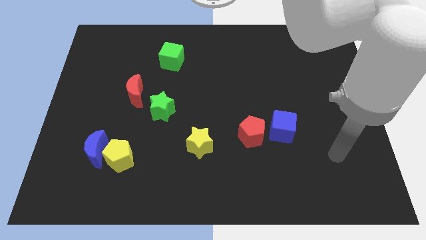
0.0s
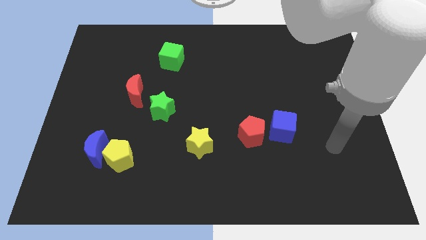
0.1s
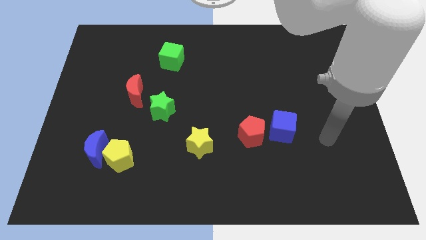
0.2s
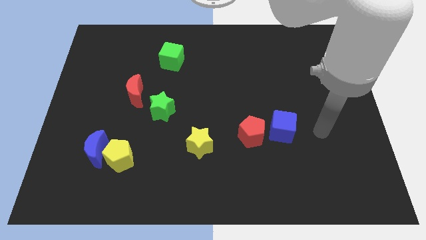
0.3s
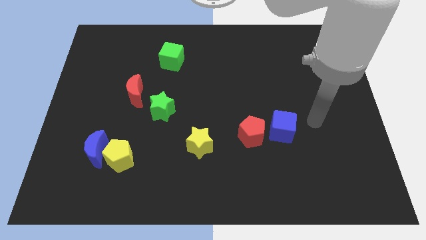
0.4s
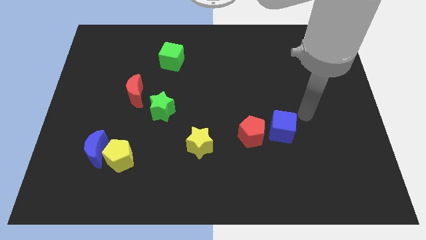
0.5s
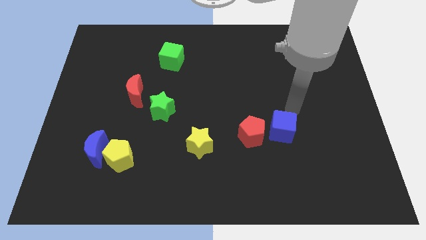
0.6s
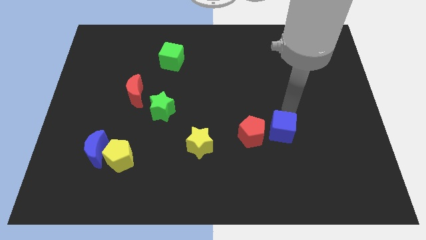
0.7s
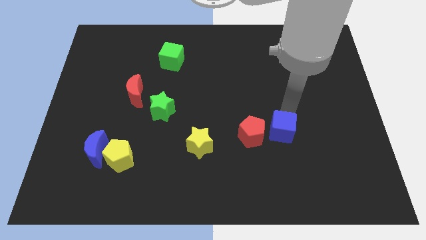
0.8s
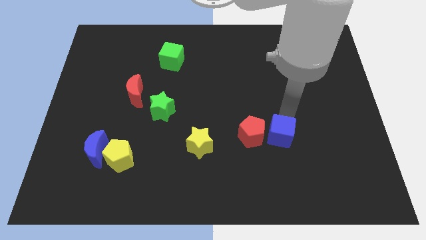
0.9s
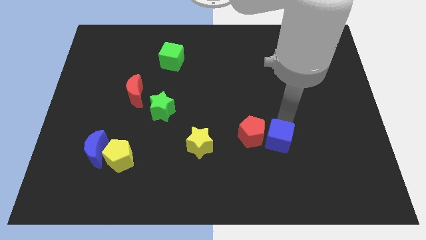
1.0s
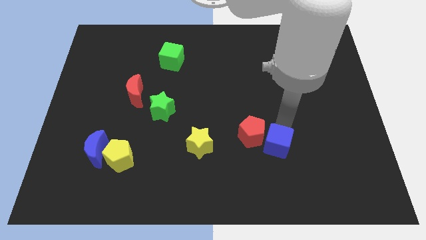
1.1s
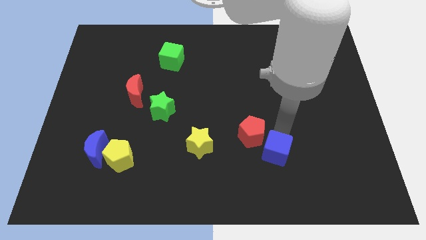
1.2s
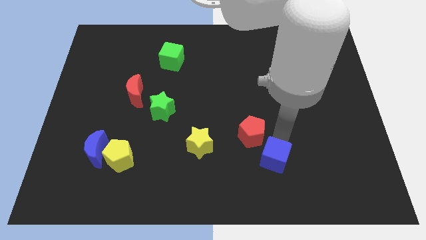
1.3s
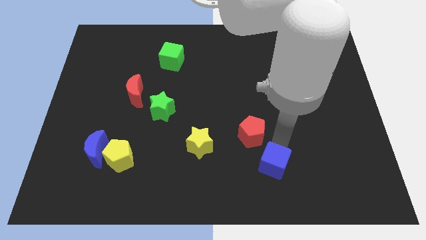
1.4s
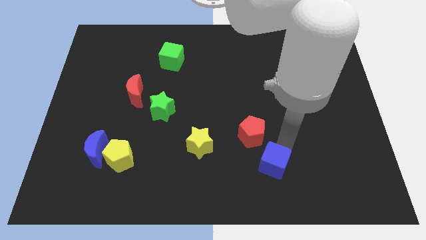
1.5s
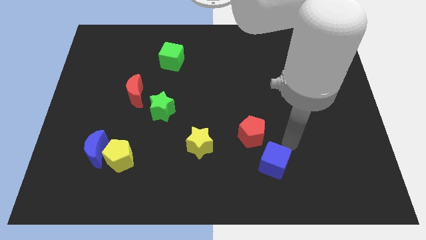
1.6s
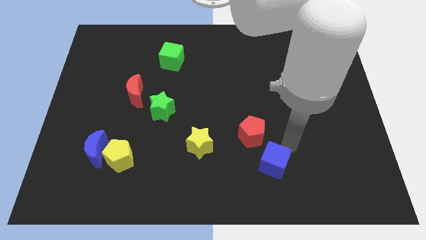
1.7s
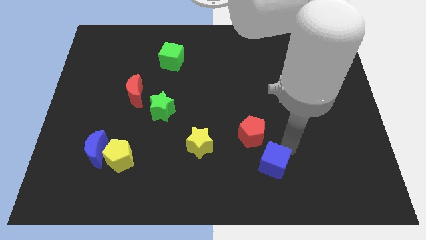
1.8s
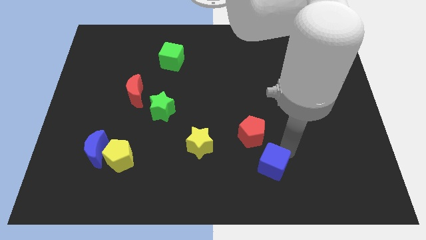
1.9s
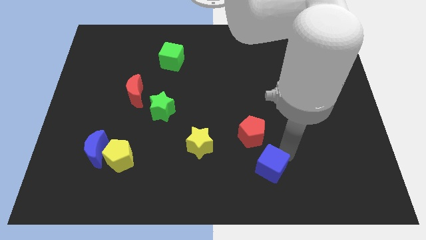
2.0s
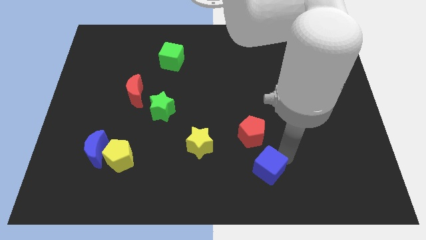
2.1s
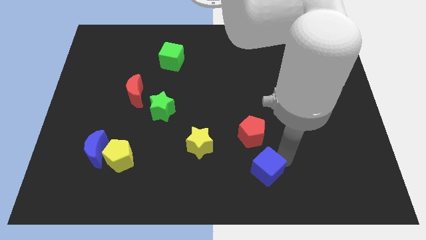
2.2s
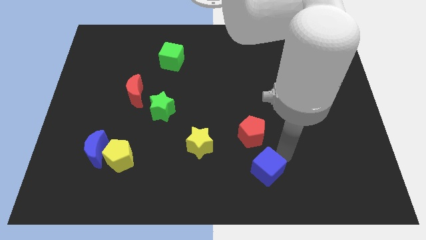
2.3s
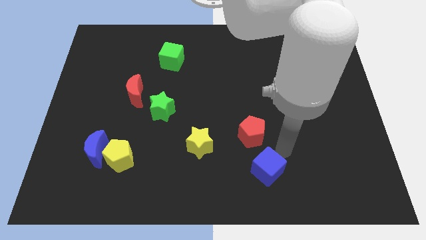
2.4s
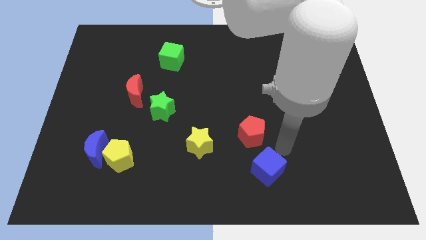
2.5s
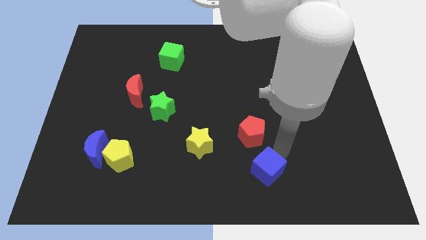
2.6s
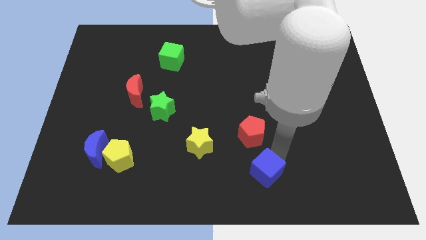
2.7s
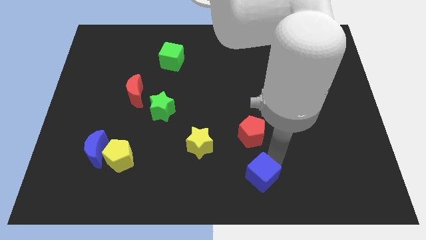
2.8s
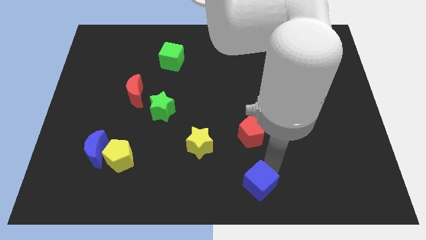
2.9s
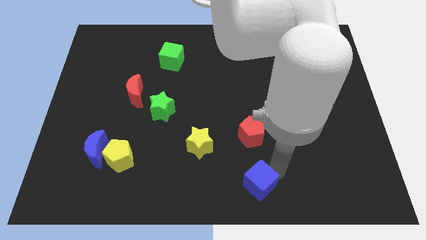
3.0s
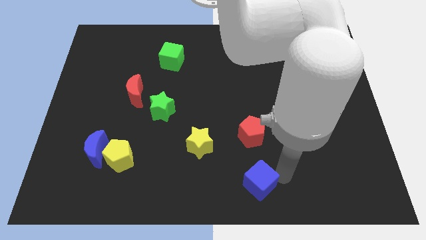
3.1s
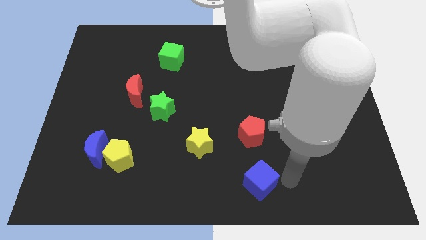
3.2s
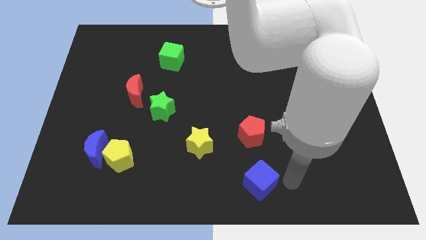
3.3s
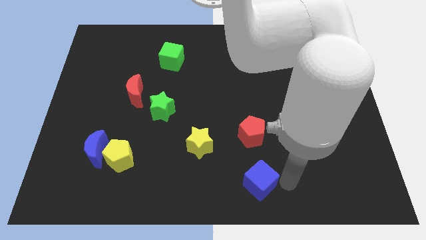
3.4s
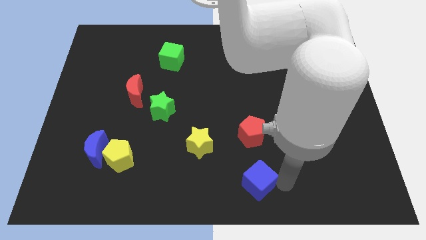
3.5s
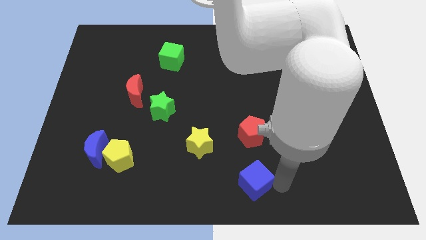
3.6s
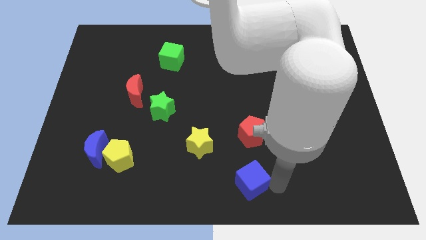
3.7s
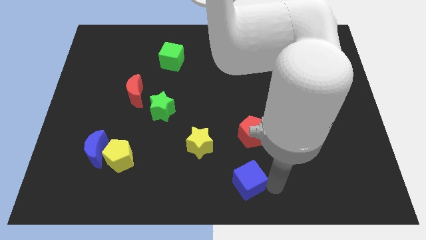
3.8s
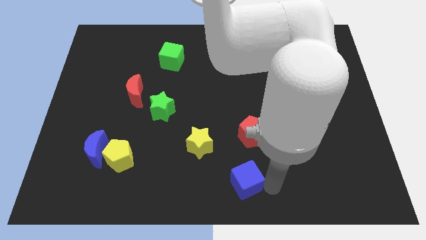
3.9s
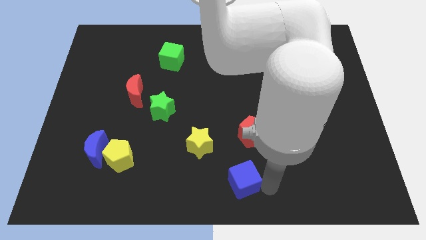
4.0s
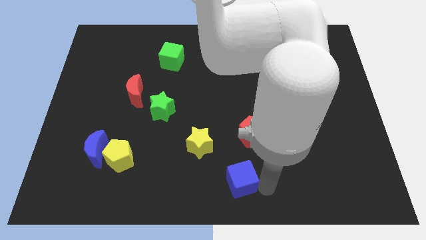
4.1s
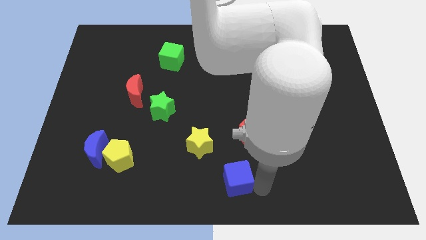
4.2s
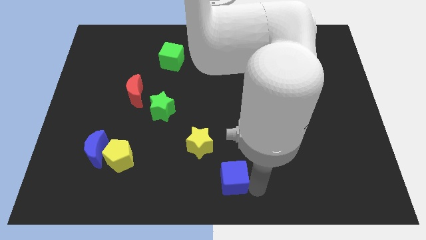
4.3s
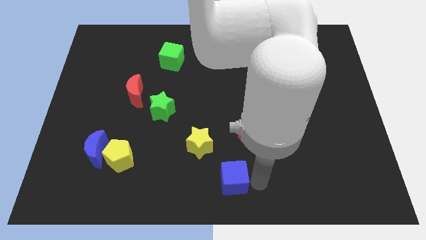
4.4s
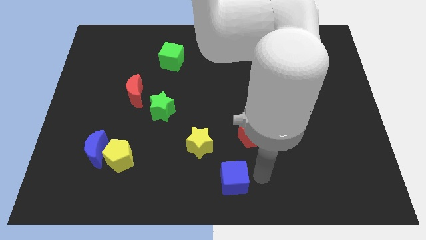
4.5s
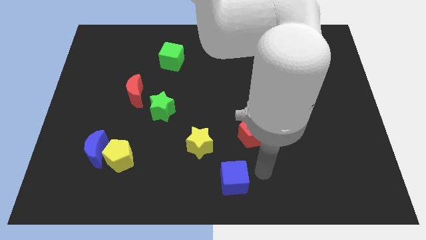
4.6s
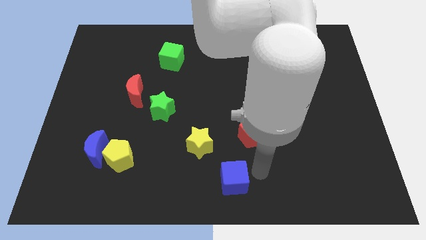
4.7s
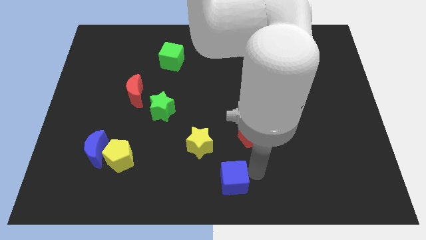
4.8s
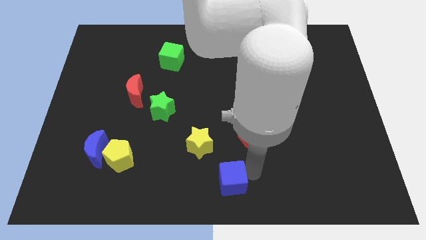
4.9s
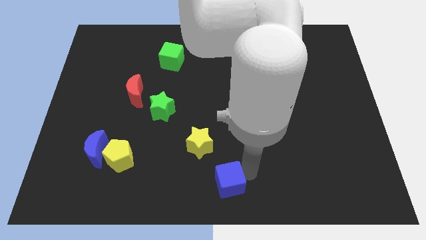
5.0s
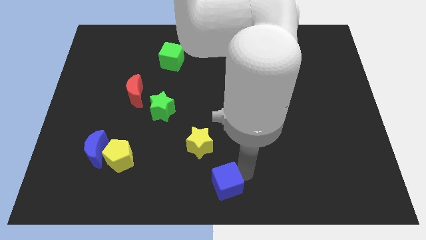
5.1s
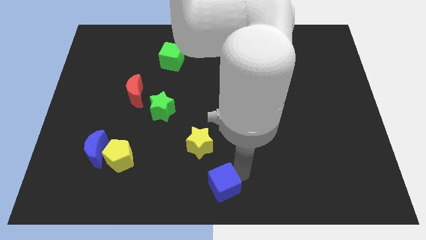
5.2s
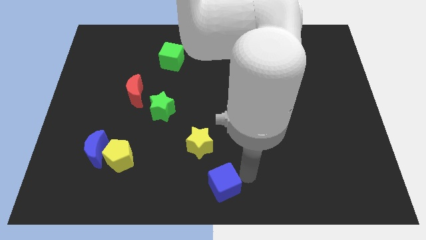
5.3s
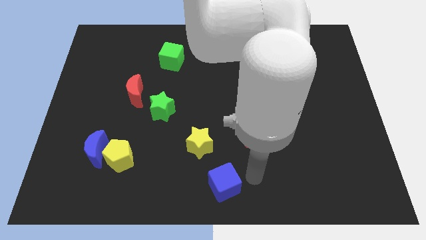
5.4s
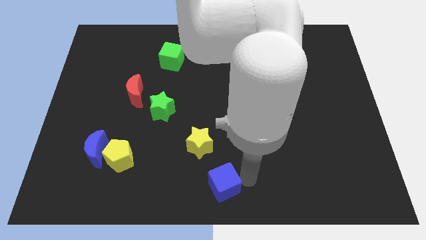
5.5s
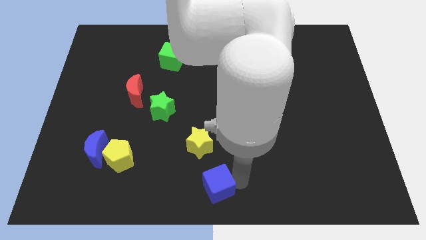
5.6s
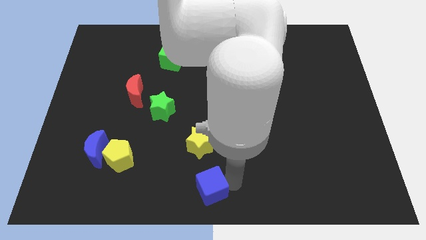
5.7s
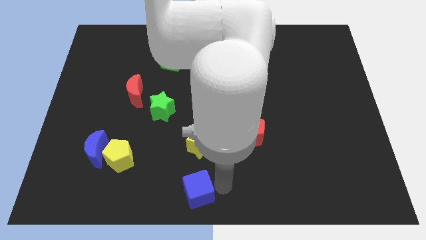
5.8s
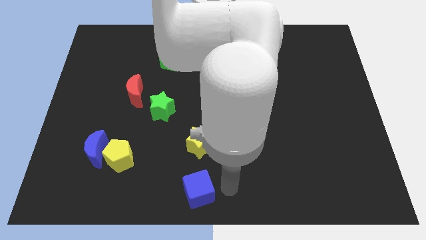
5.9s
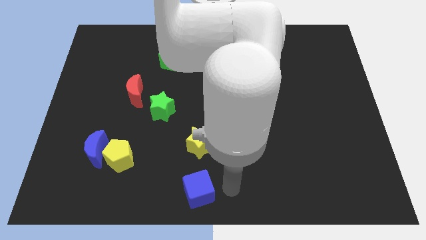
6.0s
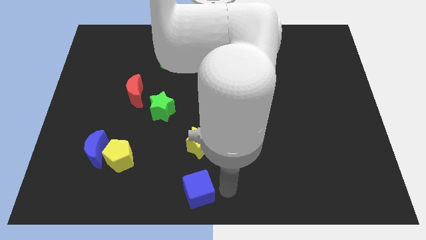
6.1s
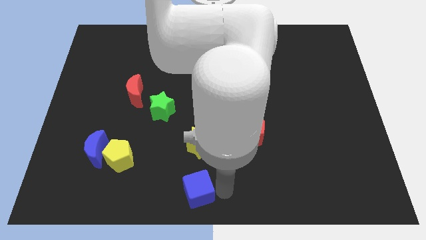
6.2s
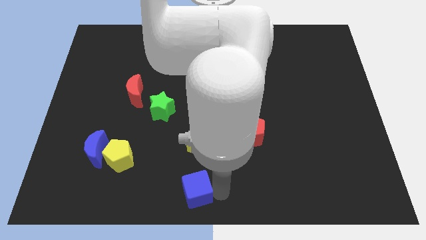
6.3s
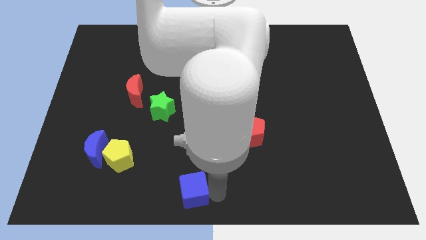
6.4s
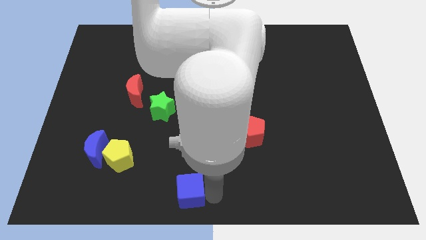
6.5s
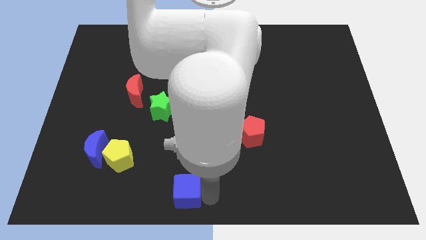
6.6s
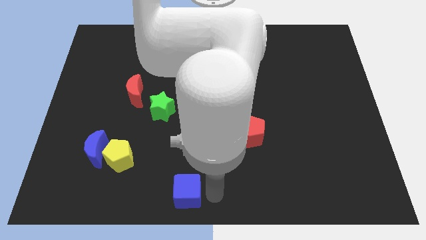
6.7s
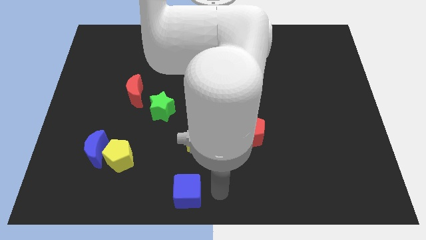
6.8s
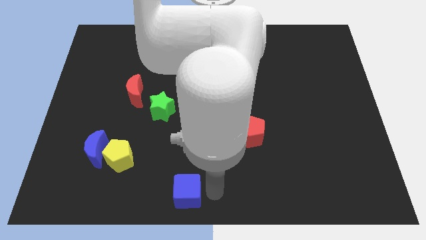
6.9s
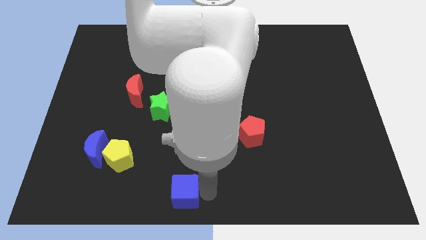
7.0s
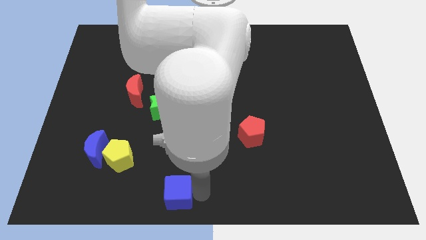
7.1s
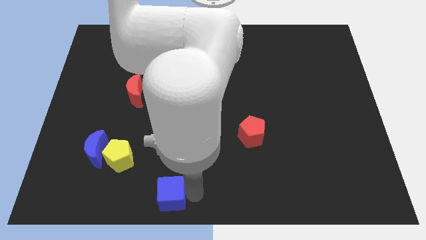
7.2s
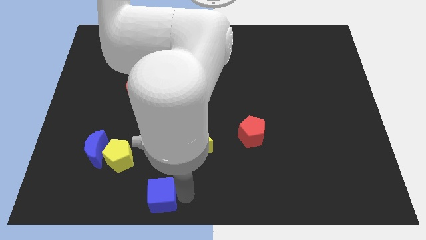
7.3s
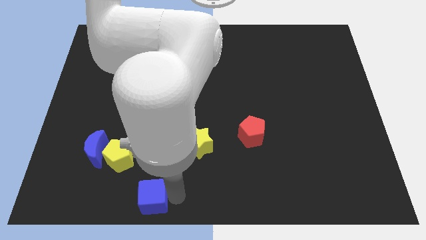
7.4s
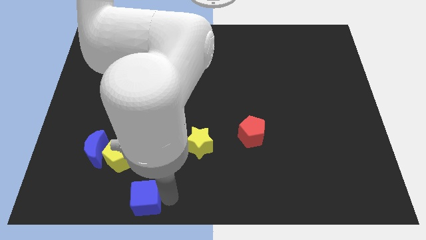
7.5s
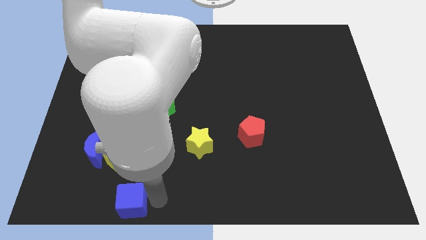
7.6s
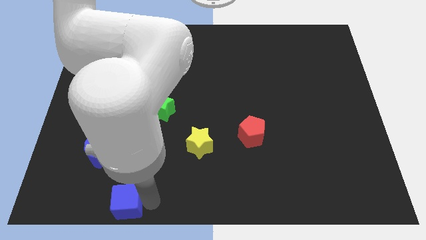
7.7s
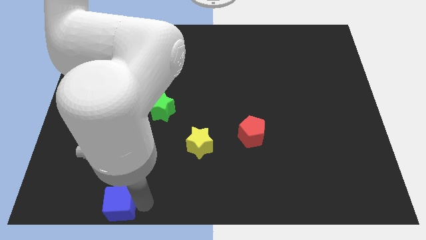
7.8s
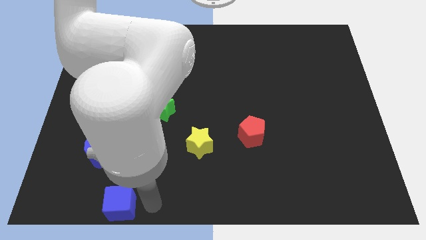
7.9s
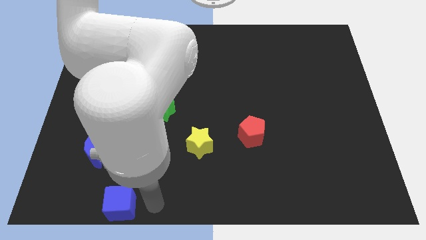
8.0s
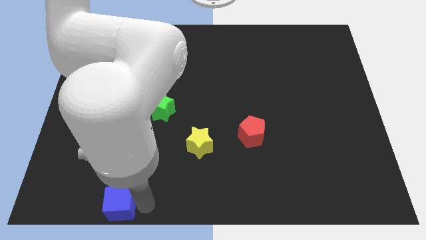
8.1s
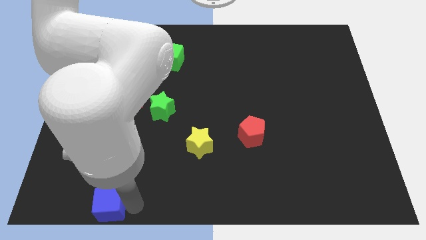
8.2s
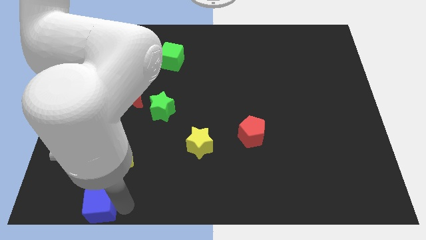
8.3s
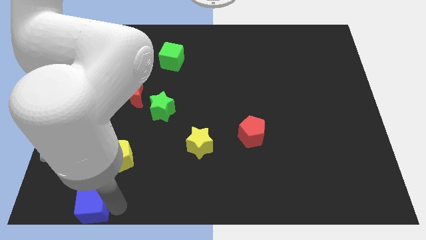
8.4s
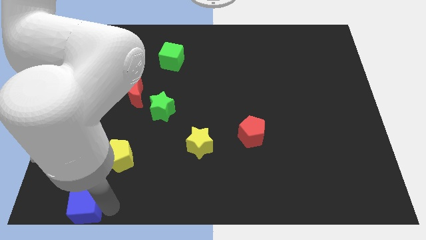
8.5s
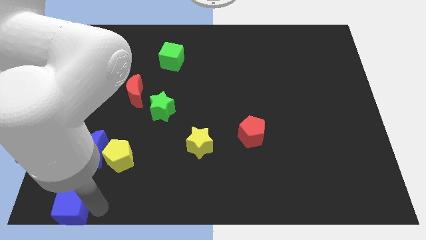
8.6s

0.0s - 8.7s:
move the blue cube to the bottom left corner
